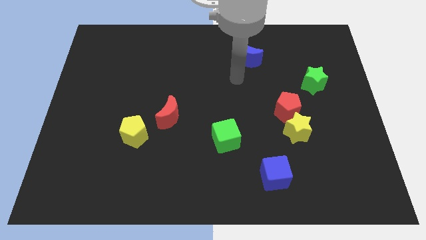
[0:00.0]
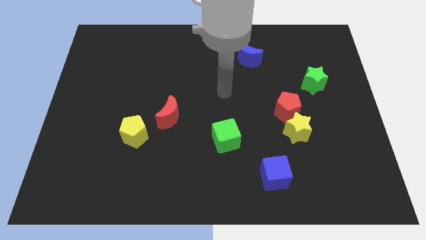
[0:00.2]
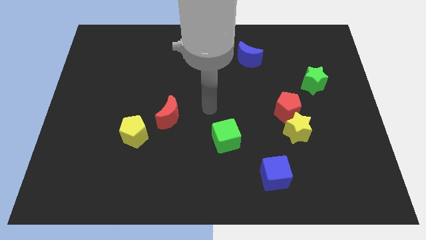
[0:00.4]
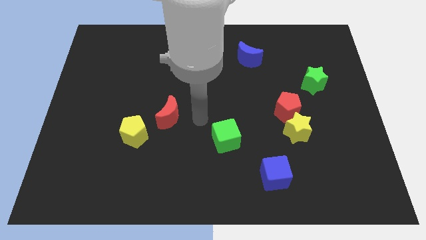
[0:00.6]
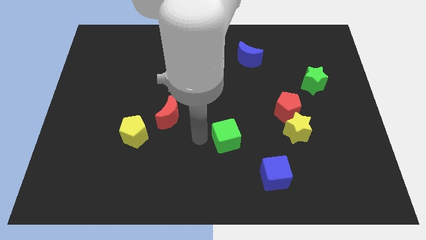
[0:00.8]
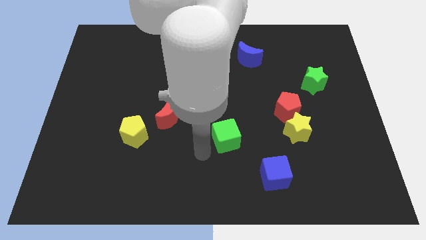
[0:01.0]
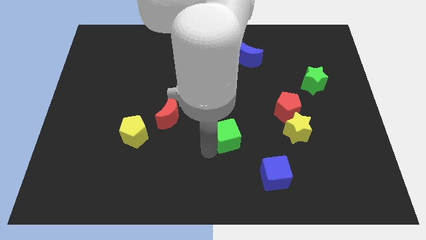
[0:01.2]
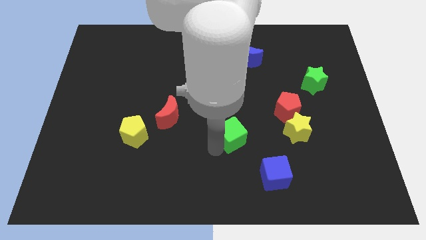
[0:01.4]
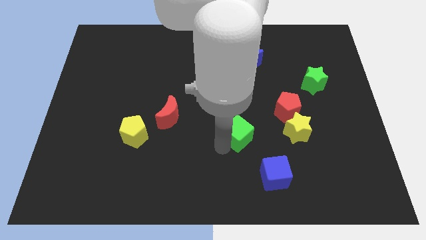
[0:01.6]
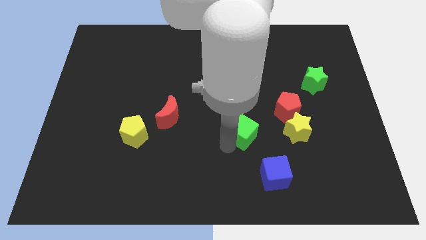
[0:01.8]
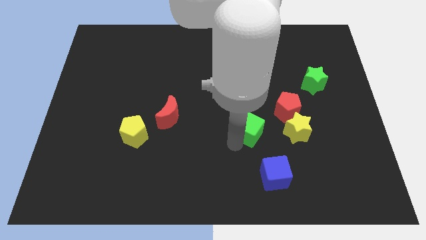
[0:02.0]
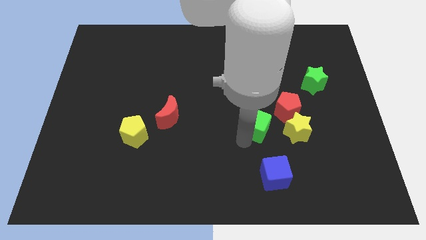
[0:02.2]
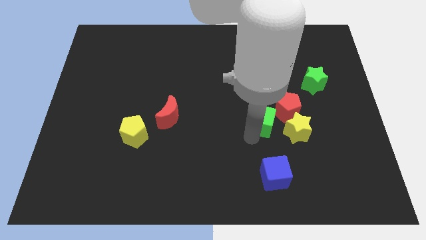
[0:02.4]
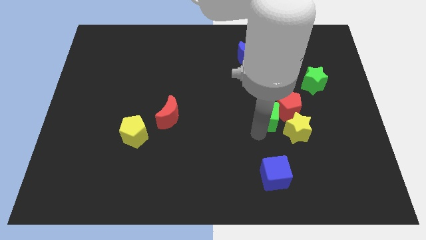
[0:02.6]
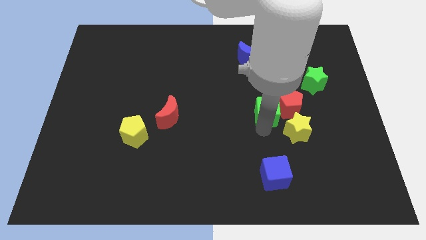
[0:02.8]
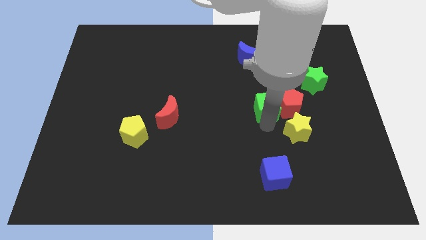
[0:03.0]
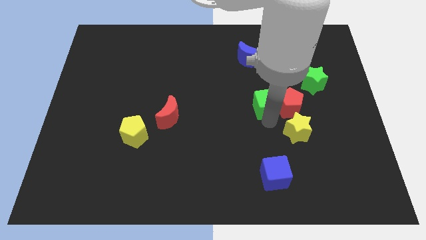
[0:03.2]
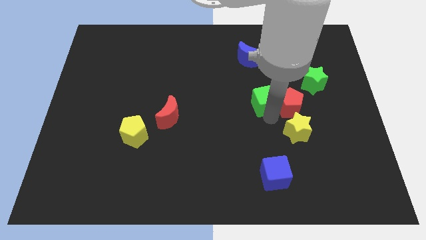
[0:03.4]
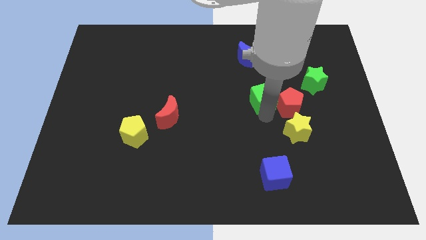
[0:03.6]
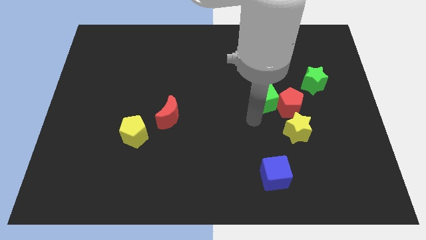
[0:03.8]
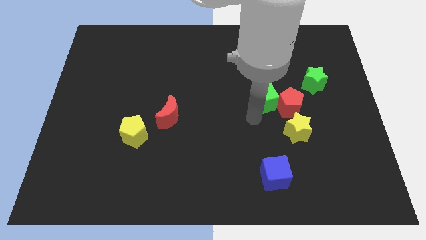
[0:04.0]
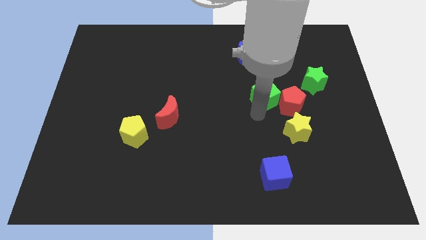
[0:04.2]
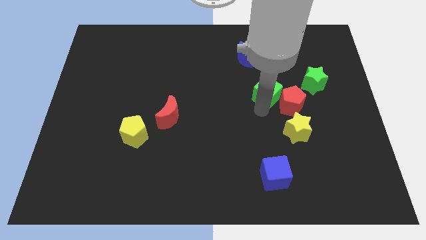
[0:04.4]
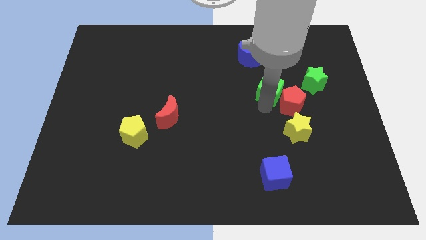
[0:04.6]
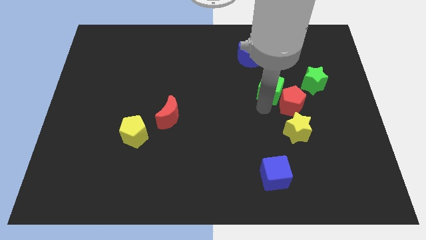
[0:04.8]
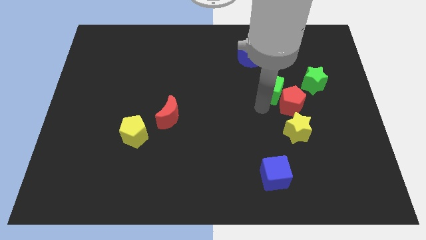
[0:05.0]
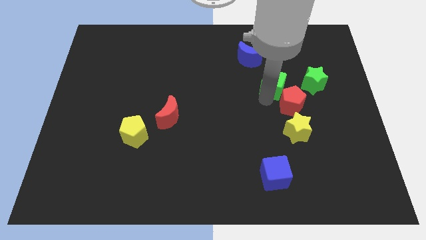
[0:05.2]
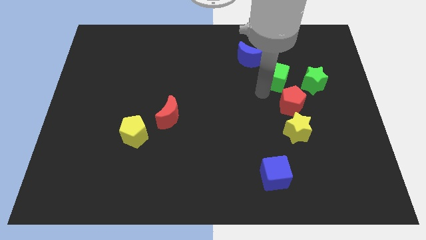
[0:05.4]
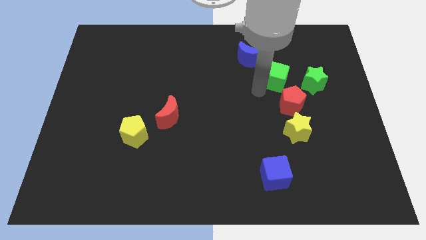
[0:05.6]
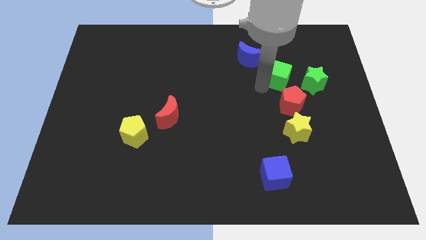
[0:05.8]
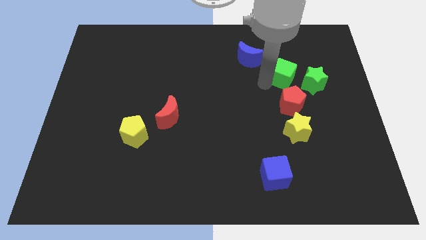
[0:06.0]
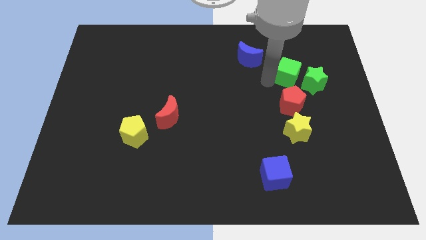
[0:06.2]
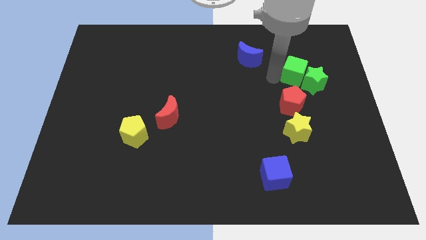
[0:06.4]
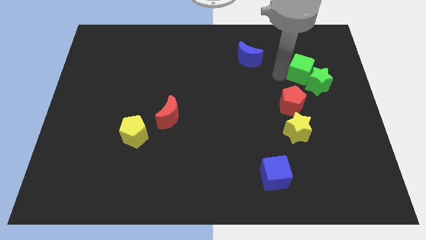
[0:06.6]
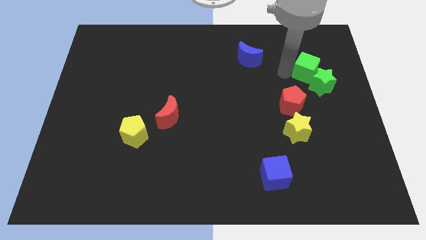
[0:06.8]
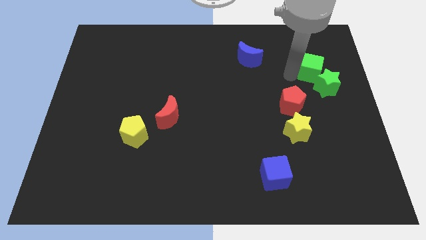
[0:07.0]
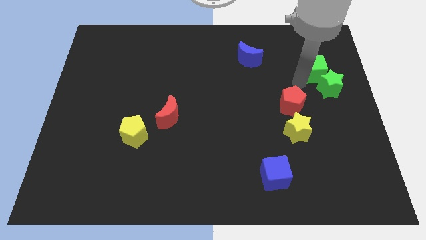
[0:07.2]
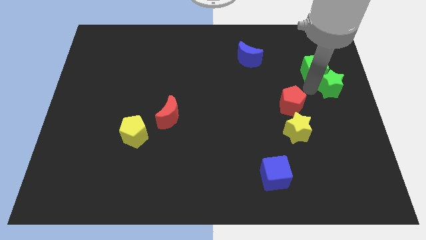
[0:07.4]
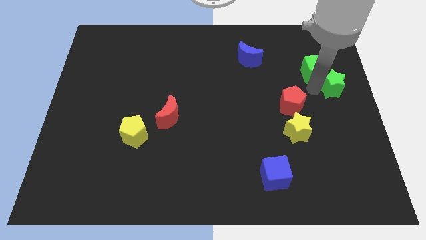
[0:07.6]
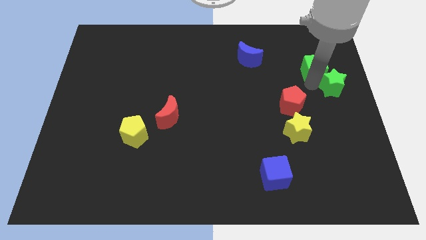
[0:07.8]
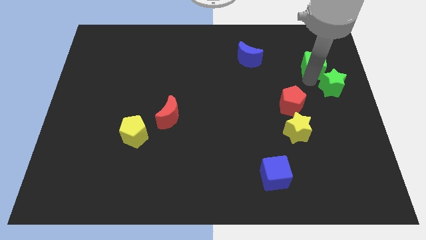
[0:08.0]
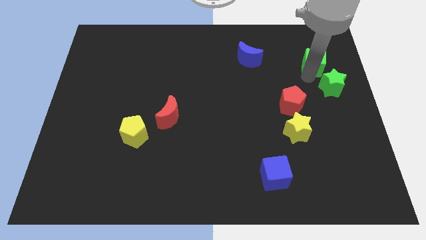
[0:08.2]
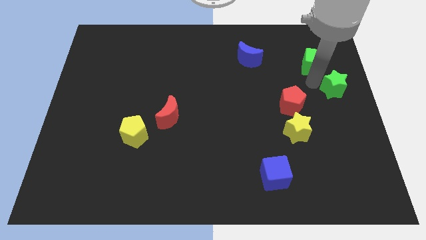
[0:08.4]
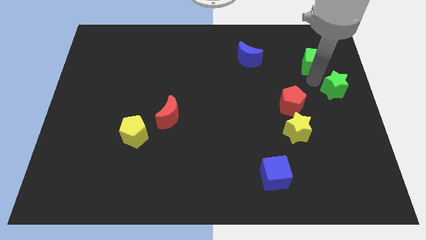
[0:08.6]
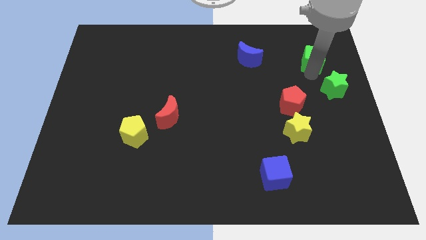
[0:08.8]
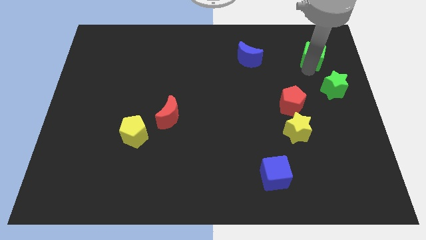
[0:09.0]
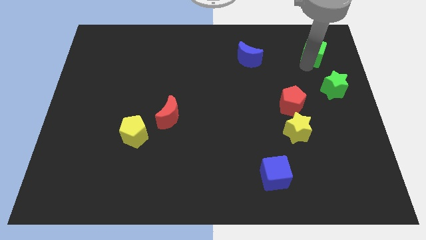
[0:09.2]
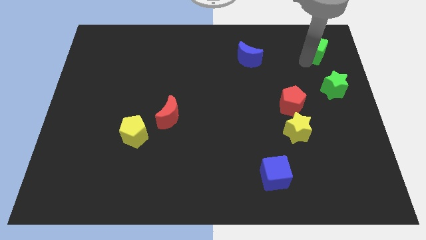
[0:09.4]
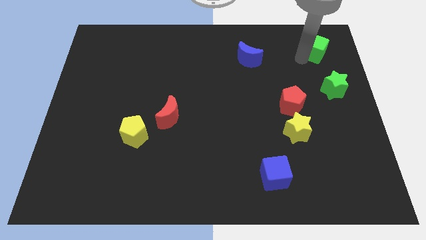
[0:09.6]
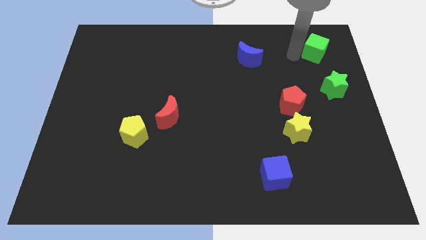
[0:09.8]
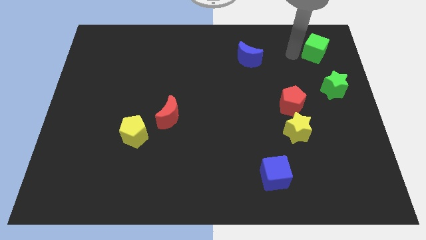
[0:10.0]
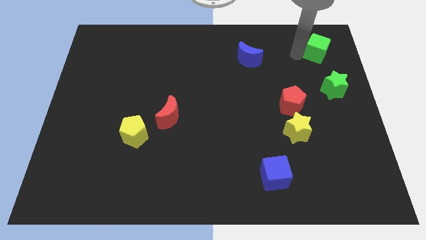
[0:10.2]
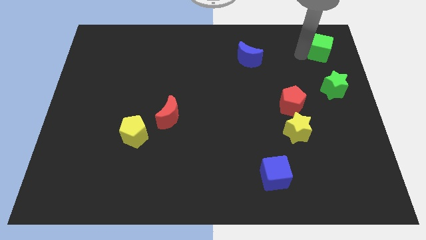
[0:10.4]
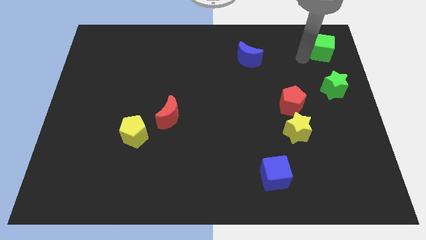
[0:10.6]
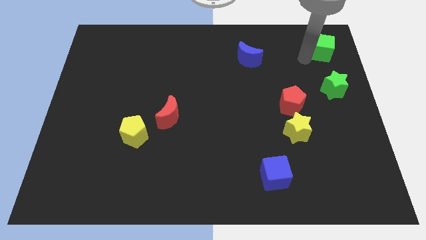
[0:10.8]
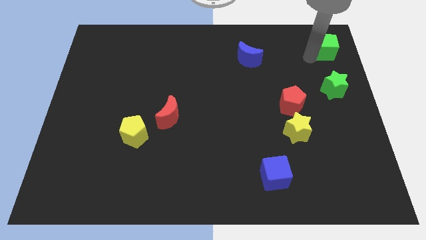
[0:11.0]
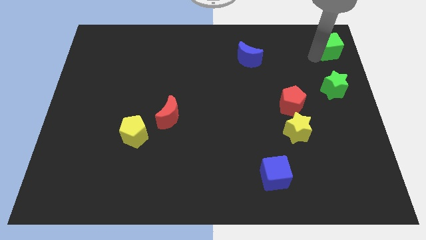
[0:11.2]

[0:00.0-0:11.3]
push the green cube to the top right corner

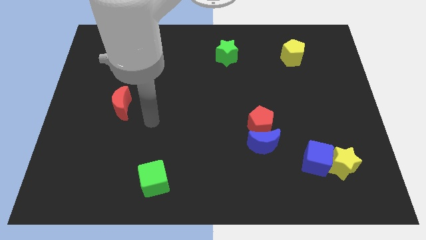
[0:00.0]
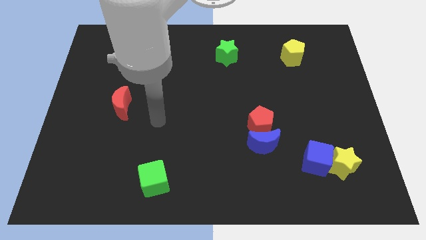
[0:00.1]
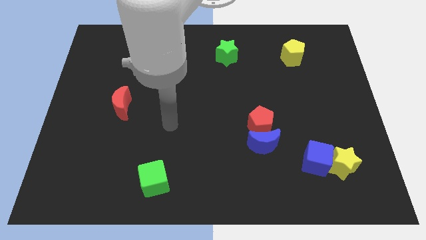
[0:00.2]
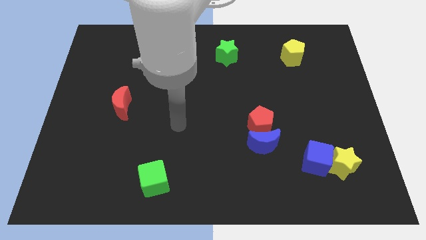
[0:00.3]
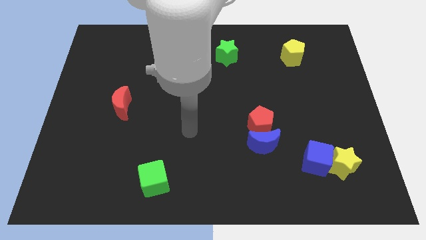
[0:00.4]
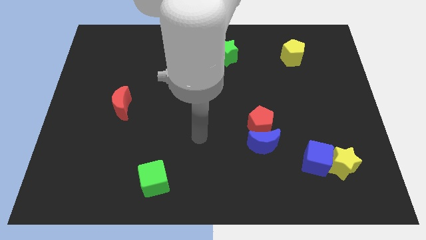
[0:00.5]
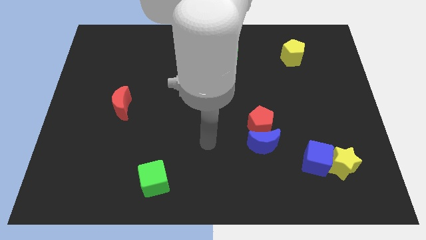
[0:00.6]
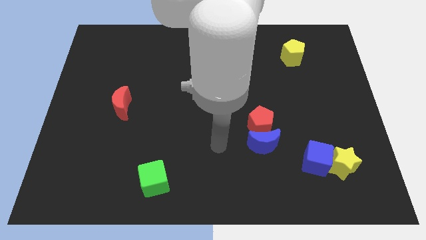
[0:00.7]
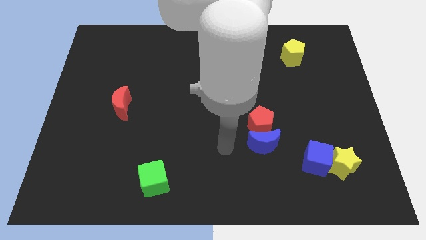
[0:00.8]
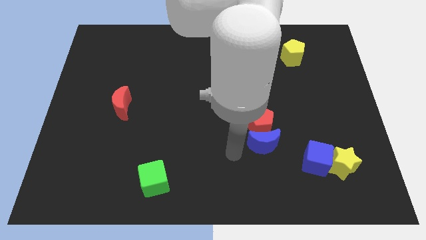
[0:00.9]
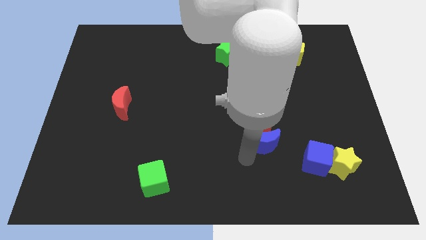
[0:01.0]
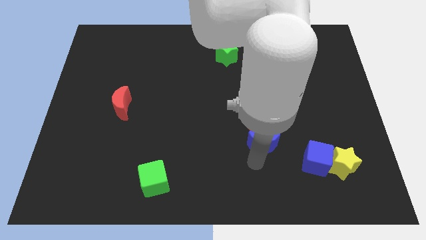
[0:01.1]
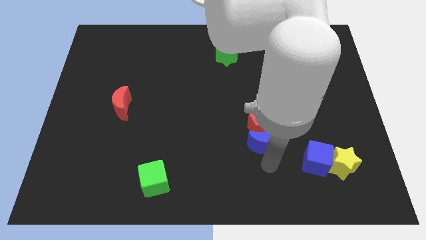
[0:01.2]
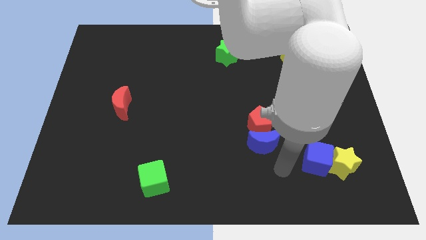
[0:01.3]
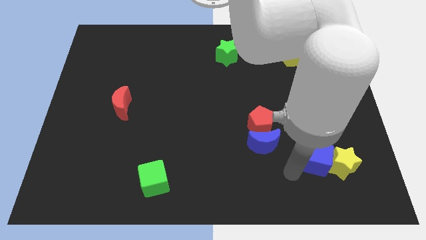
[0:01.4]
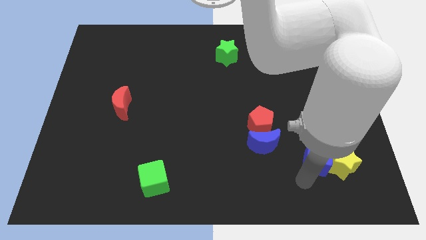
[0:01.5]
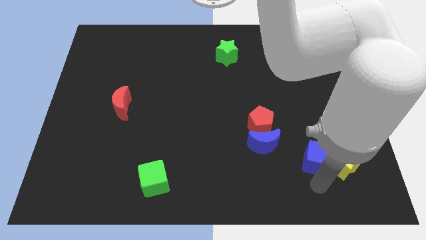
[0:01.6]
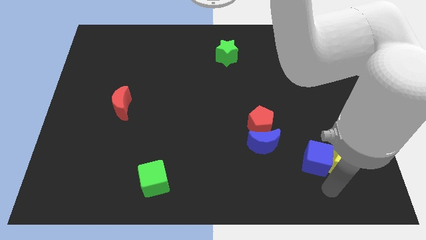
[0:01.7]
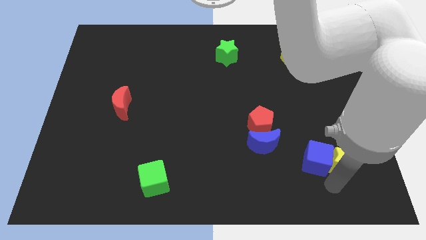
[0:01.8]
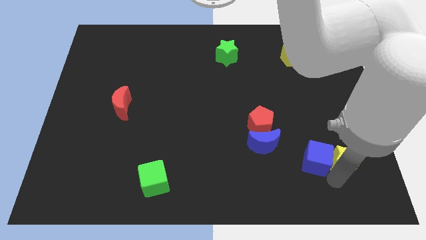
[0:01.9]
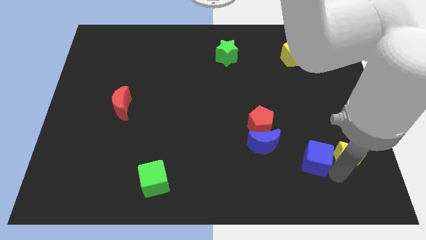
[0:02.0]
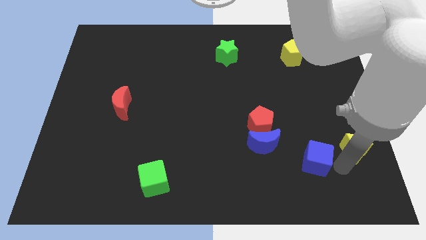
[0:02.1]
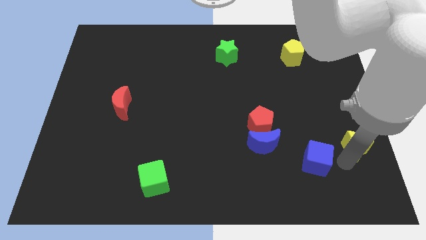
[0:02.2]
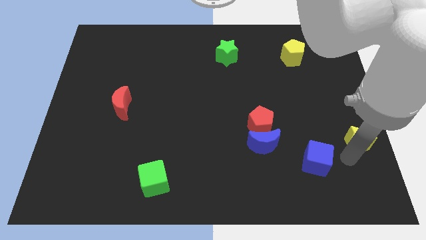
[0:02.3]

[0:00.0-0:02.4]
push the yellow star to the right side of the board
